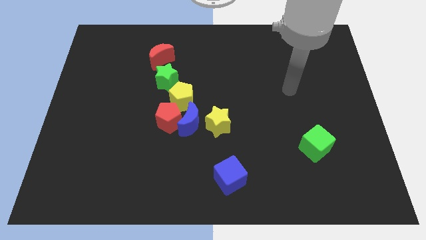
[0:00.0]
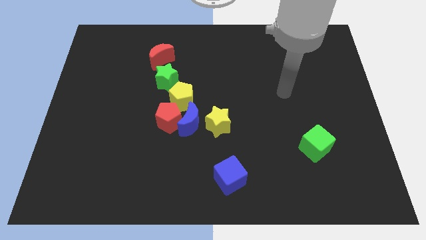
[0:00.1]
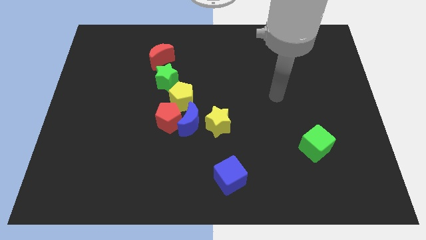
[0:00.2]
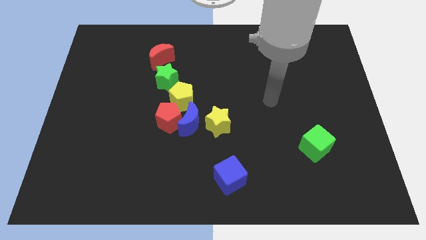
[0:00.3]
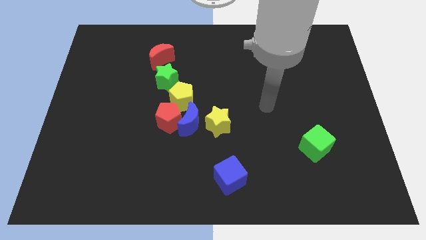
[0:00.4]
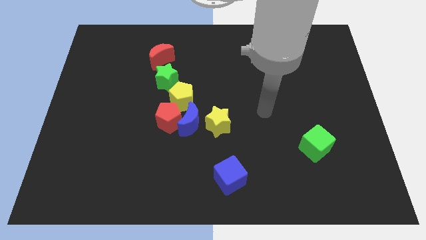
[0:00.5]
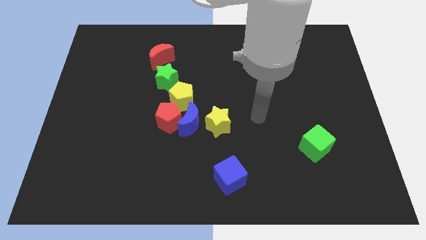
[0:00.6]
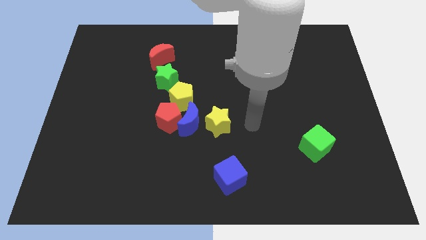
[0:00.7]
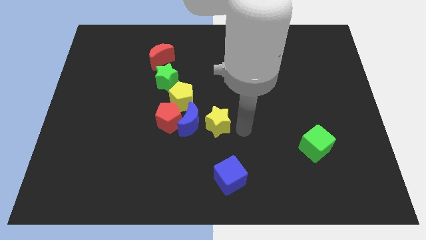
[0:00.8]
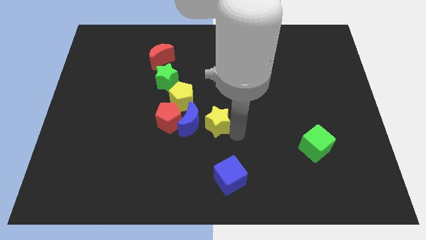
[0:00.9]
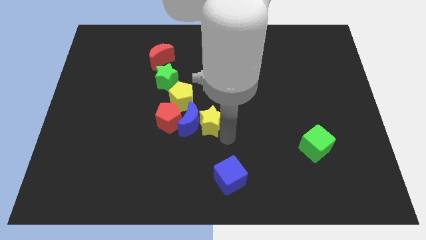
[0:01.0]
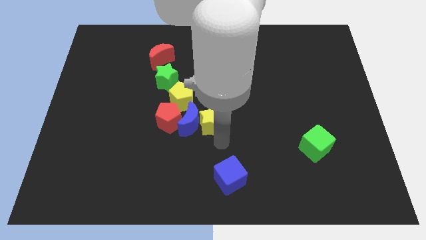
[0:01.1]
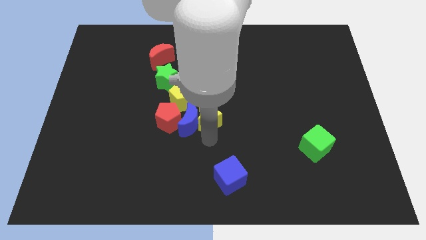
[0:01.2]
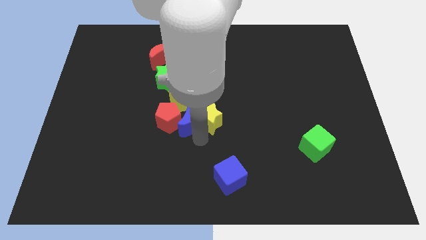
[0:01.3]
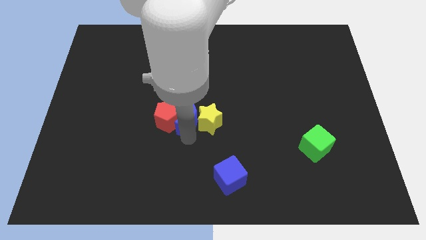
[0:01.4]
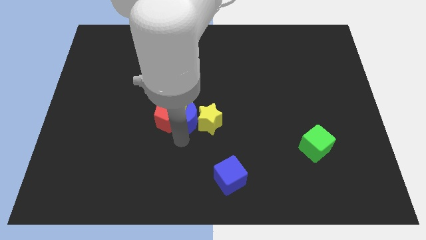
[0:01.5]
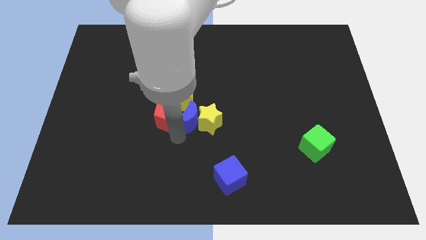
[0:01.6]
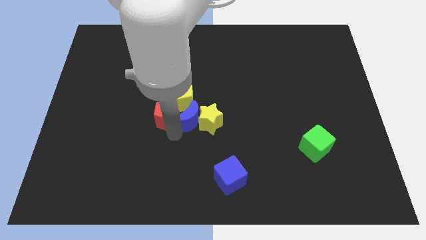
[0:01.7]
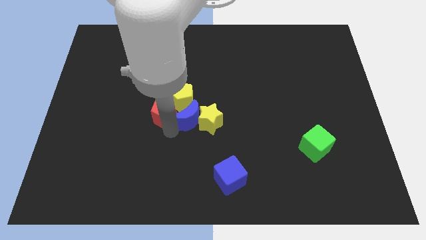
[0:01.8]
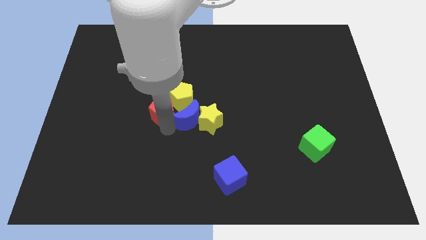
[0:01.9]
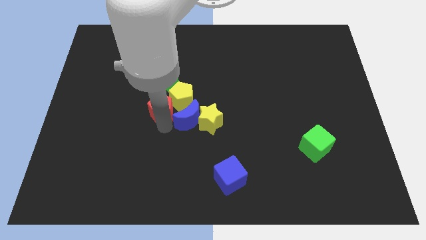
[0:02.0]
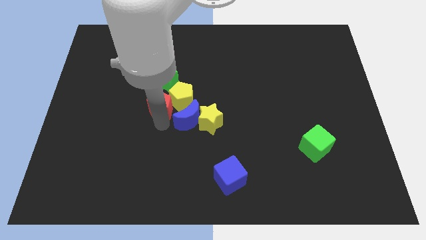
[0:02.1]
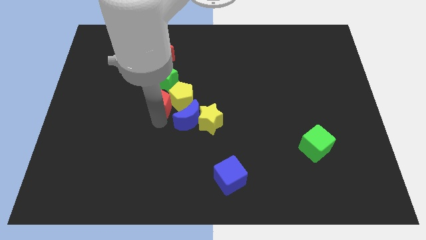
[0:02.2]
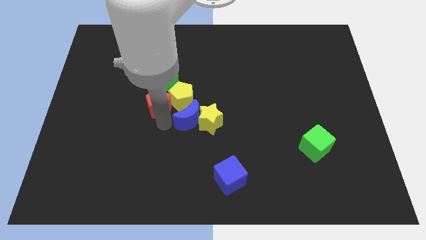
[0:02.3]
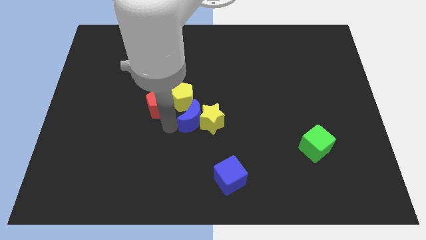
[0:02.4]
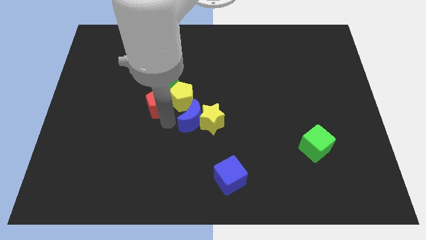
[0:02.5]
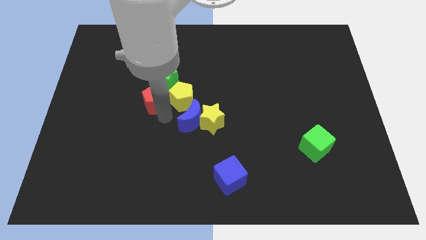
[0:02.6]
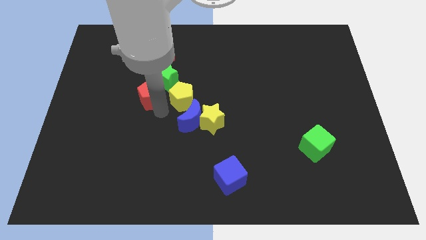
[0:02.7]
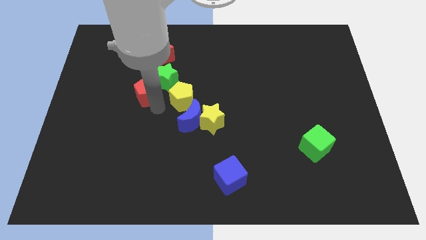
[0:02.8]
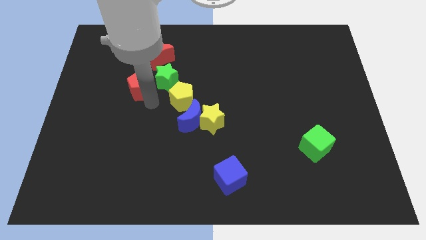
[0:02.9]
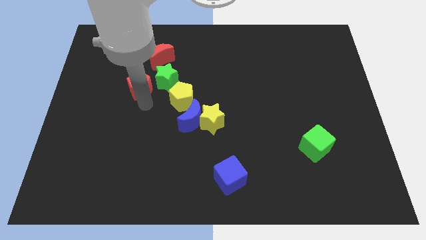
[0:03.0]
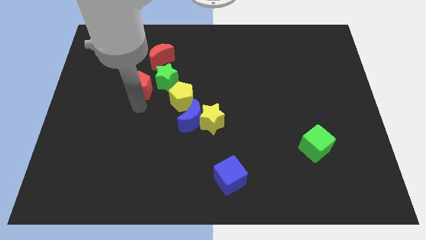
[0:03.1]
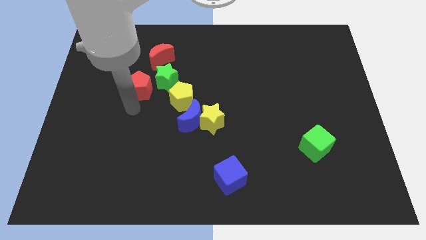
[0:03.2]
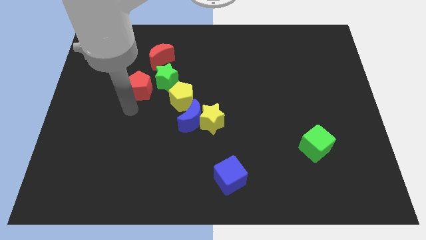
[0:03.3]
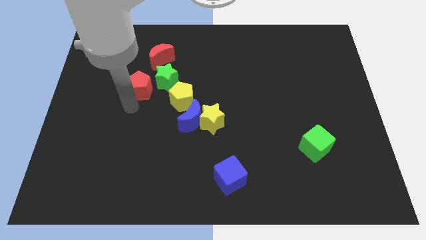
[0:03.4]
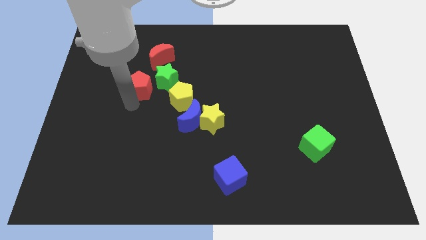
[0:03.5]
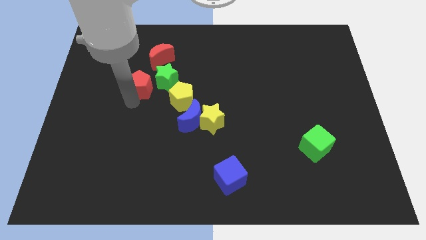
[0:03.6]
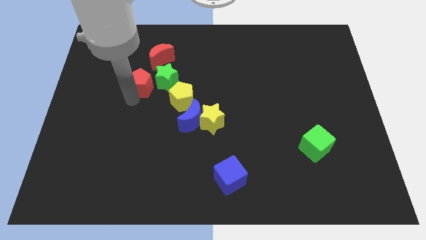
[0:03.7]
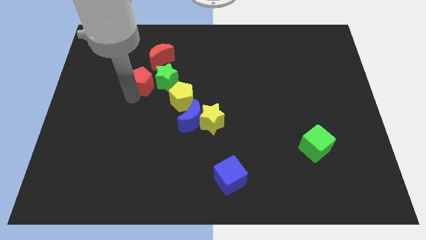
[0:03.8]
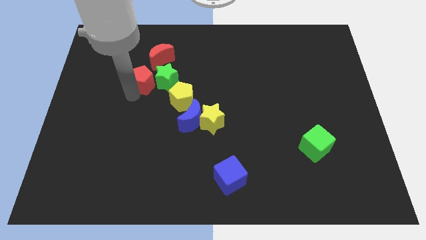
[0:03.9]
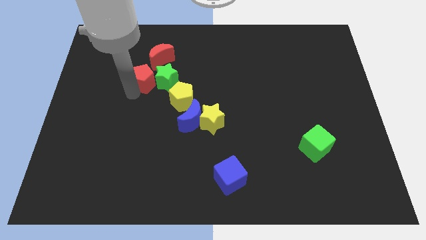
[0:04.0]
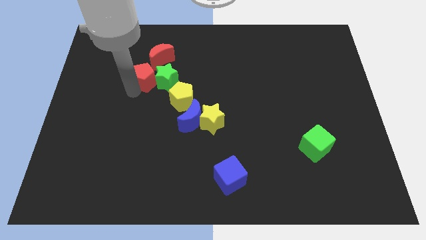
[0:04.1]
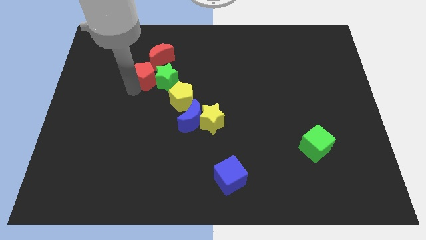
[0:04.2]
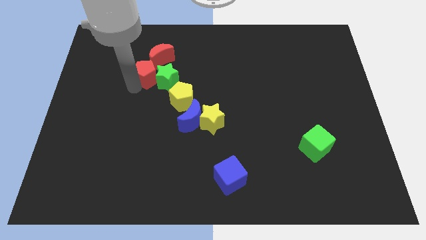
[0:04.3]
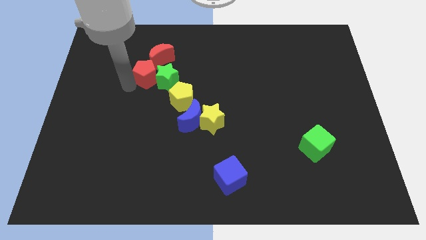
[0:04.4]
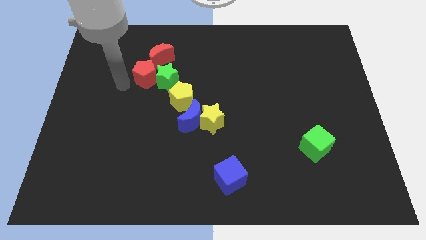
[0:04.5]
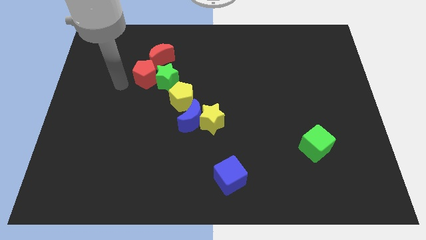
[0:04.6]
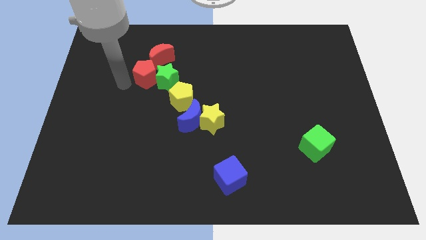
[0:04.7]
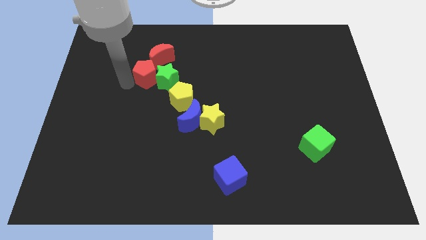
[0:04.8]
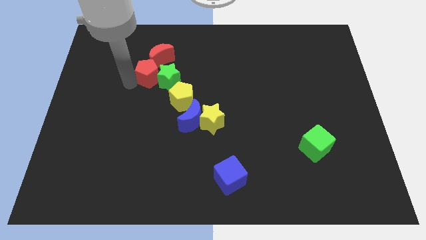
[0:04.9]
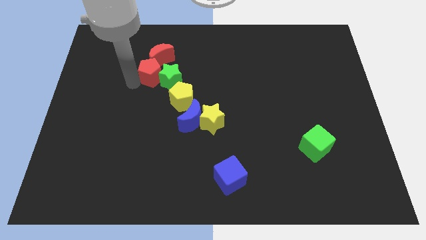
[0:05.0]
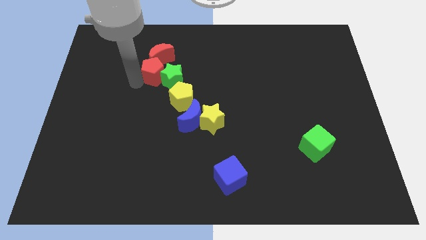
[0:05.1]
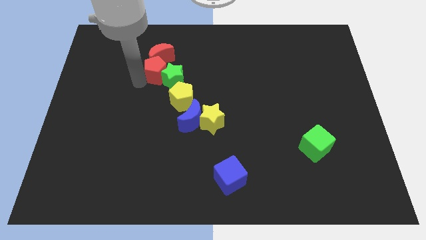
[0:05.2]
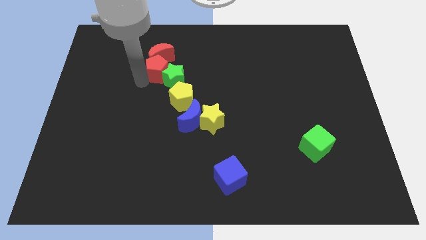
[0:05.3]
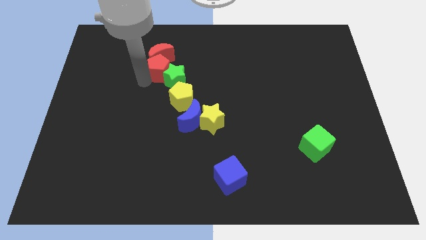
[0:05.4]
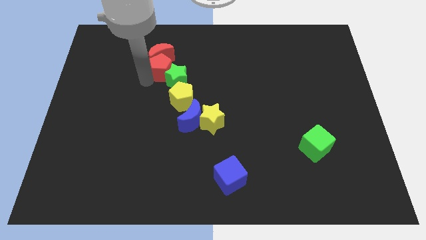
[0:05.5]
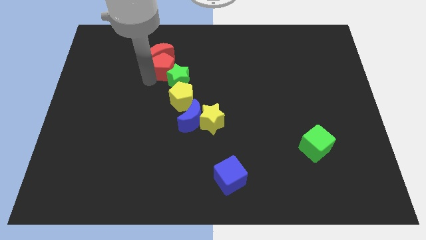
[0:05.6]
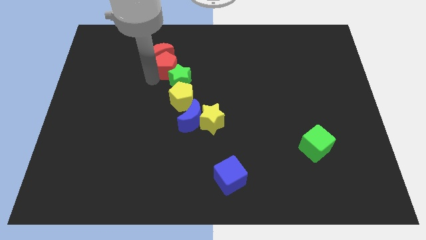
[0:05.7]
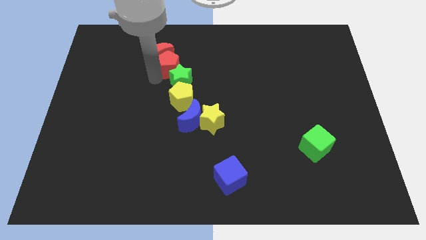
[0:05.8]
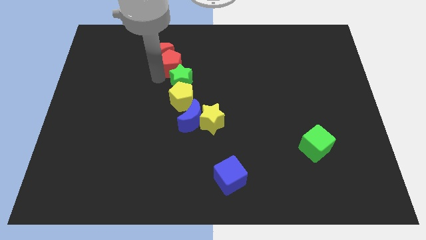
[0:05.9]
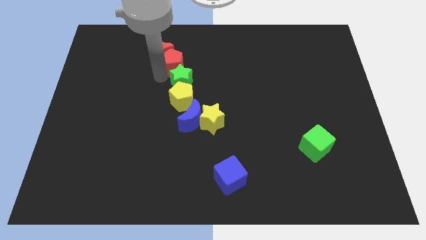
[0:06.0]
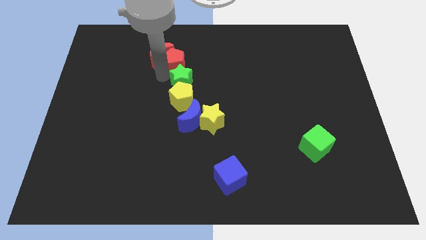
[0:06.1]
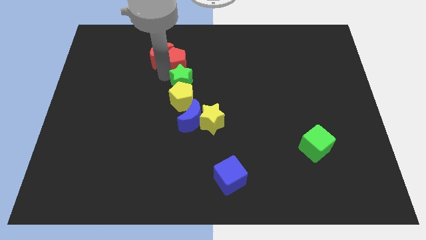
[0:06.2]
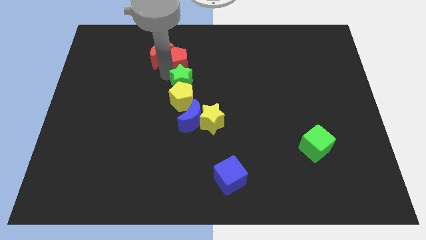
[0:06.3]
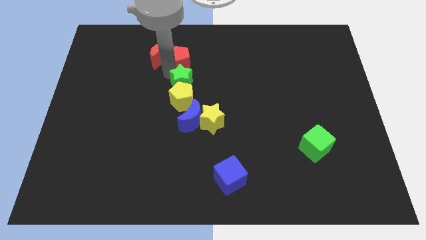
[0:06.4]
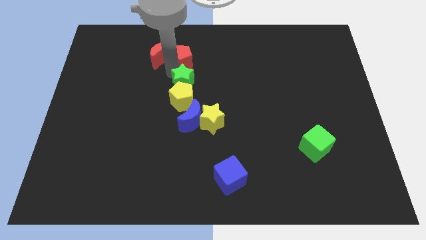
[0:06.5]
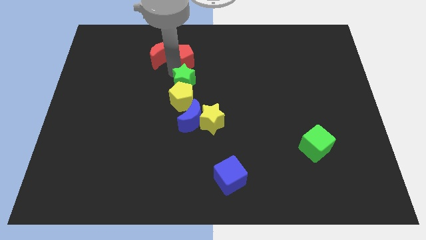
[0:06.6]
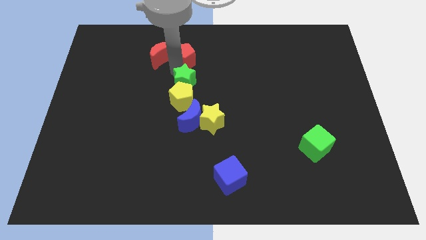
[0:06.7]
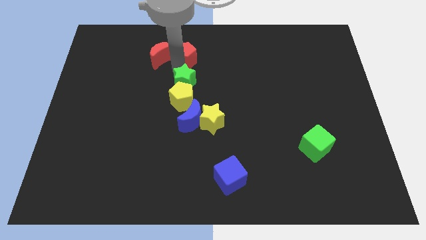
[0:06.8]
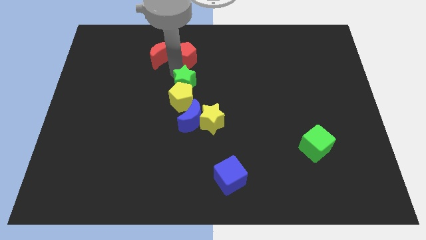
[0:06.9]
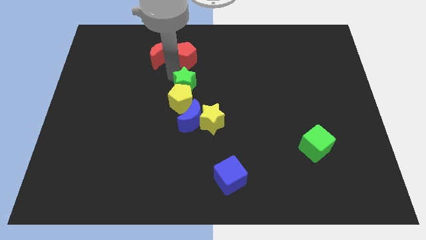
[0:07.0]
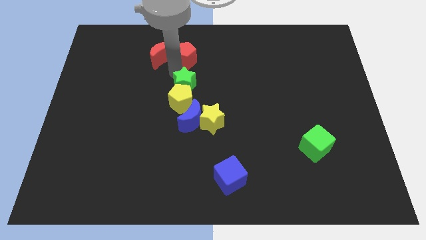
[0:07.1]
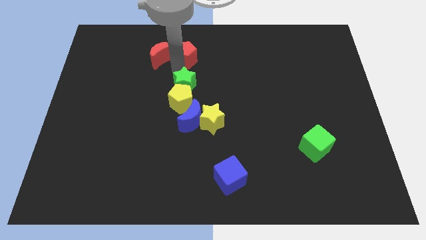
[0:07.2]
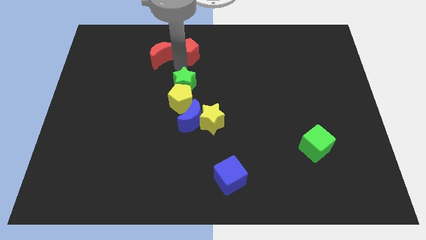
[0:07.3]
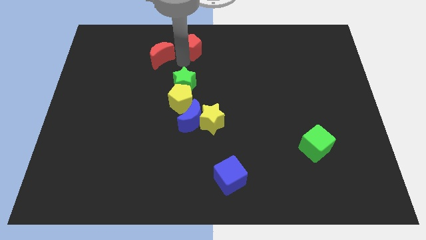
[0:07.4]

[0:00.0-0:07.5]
put the red pentagon to the top side
